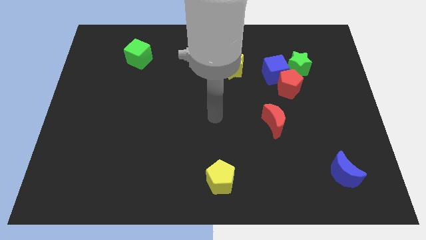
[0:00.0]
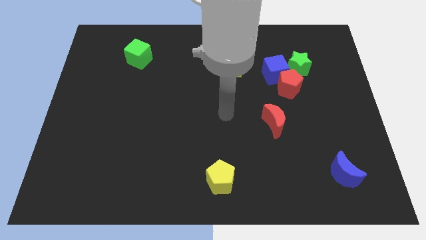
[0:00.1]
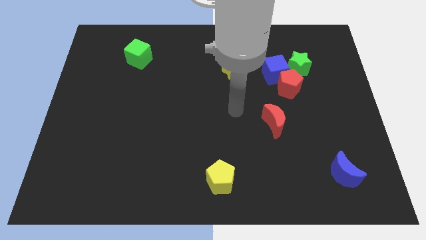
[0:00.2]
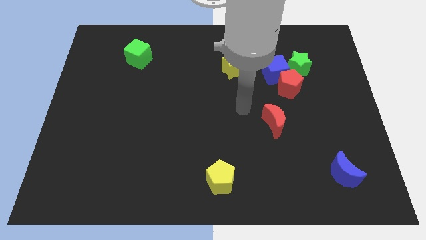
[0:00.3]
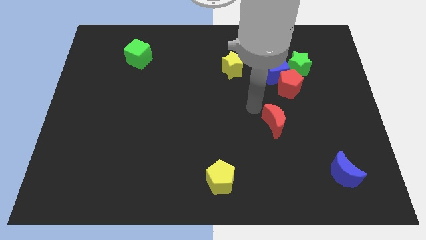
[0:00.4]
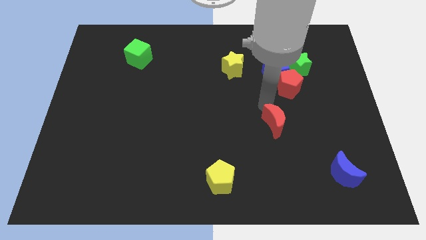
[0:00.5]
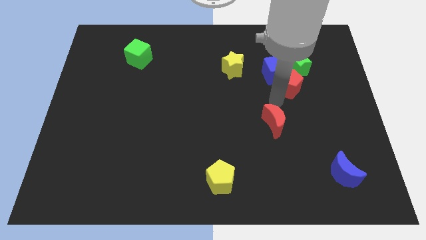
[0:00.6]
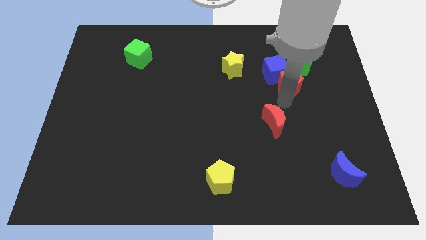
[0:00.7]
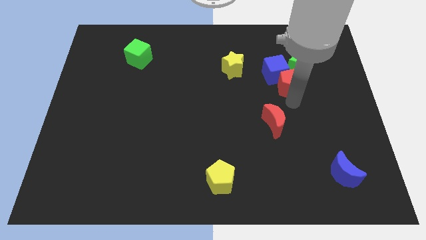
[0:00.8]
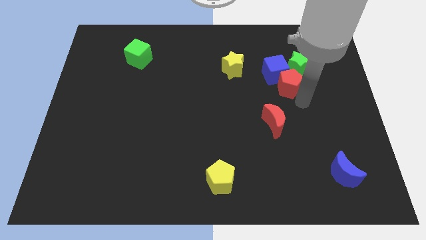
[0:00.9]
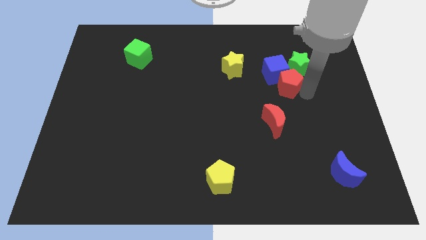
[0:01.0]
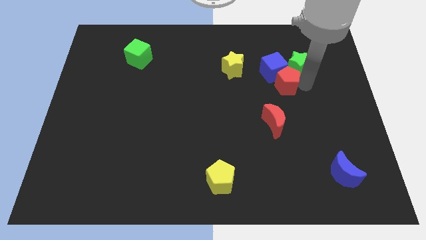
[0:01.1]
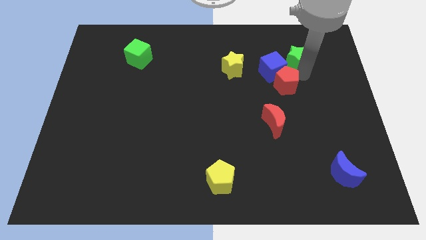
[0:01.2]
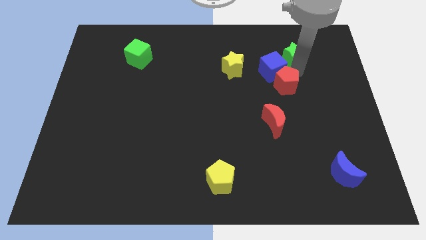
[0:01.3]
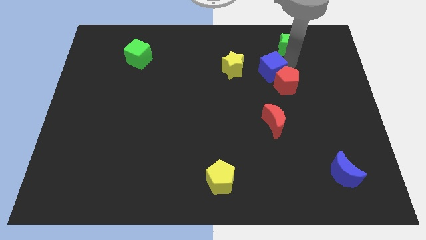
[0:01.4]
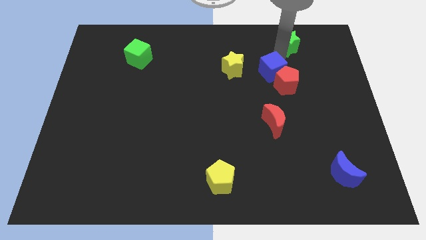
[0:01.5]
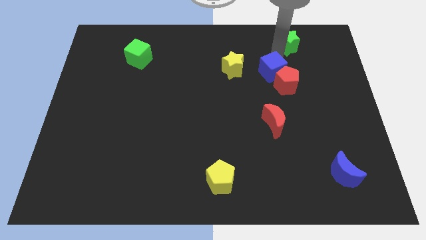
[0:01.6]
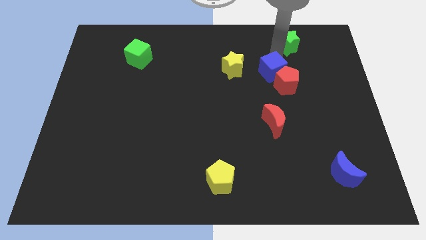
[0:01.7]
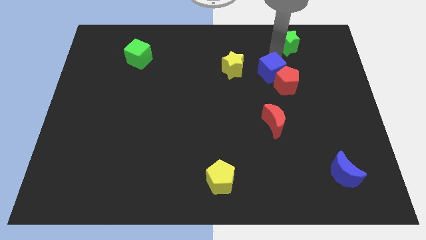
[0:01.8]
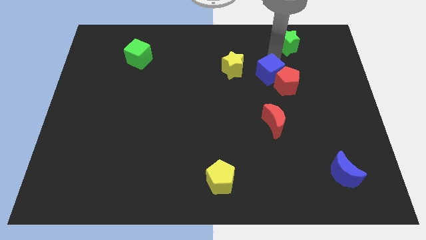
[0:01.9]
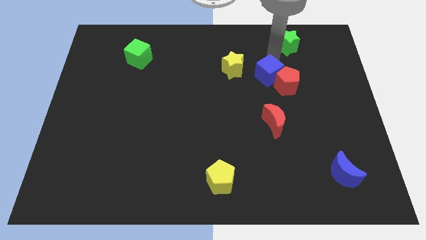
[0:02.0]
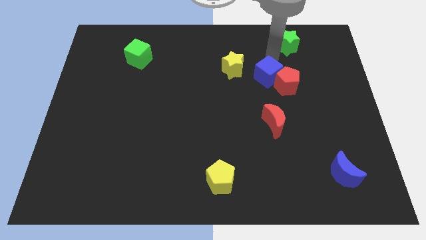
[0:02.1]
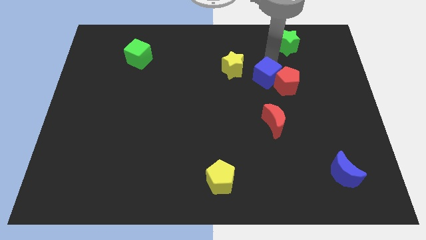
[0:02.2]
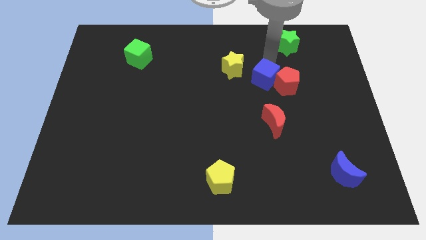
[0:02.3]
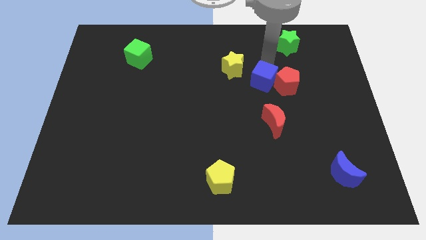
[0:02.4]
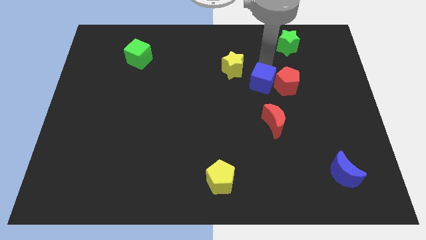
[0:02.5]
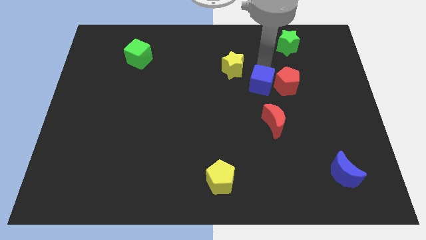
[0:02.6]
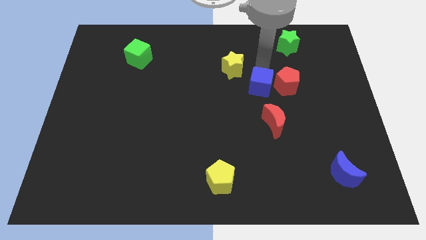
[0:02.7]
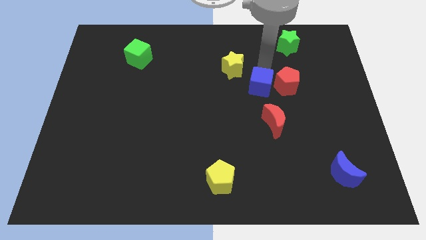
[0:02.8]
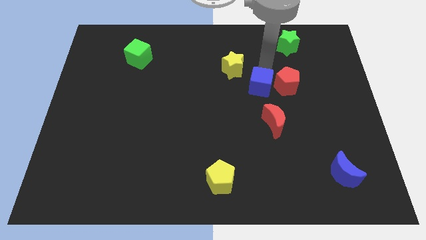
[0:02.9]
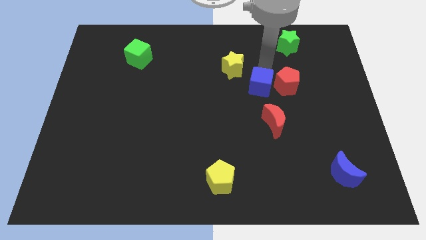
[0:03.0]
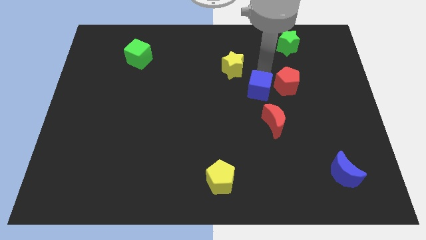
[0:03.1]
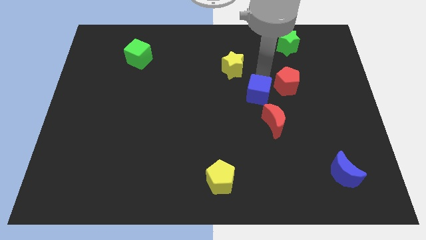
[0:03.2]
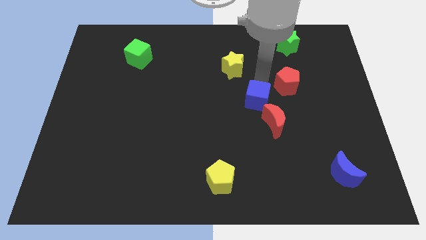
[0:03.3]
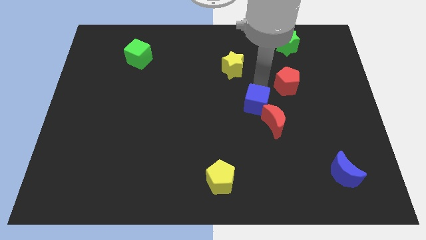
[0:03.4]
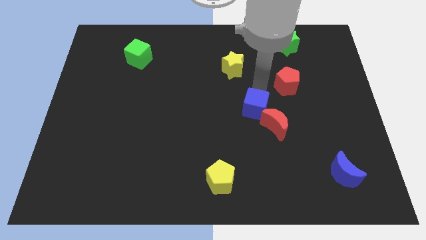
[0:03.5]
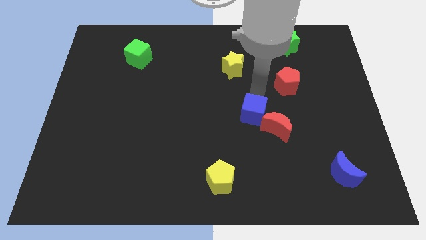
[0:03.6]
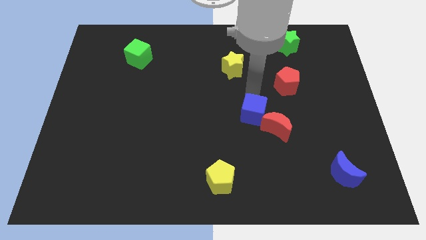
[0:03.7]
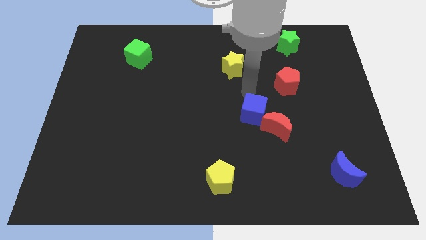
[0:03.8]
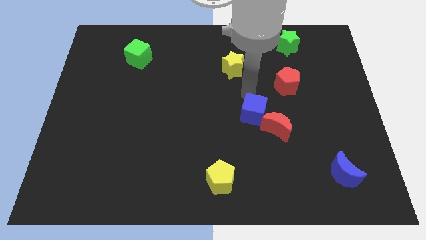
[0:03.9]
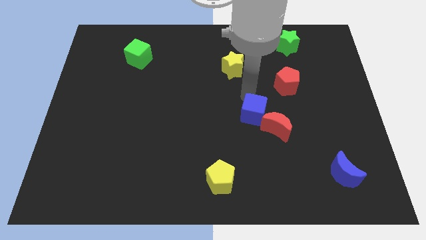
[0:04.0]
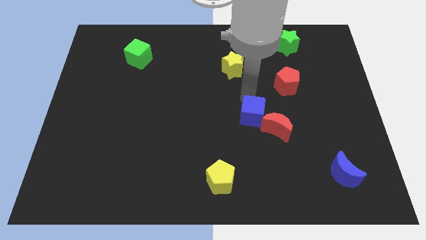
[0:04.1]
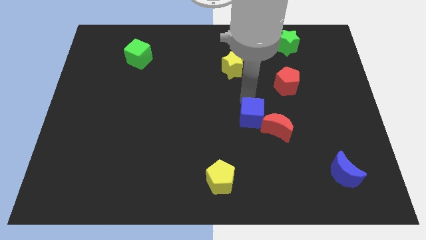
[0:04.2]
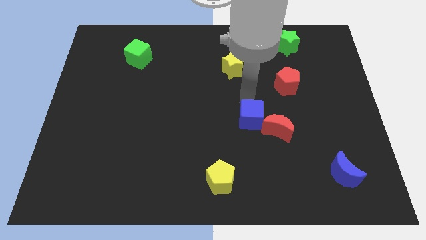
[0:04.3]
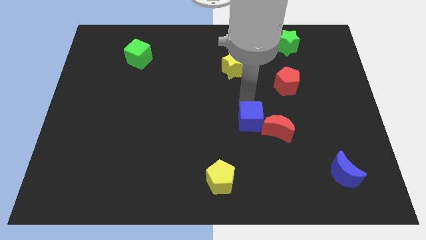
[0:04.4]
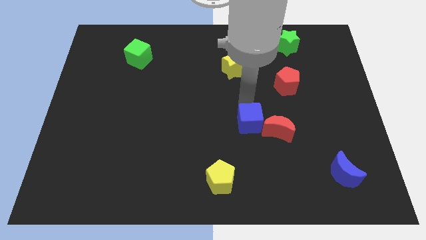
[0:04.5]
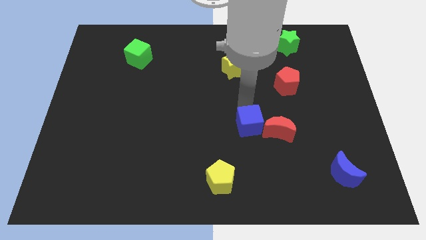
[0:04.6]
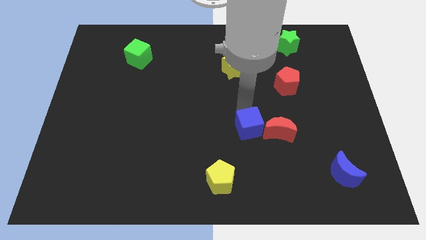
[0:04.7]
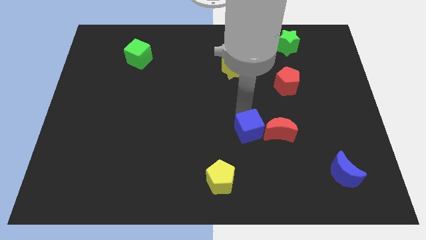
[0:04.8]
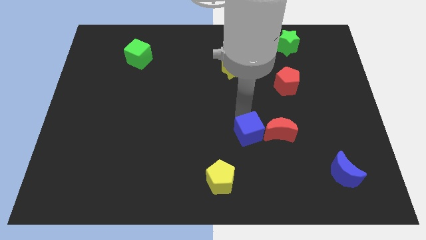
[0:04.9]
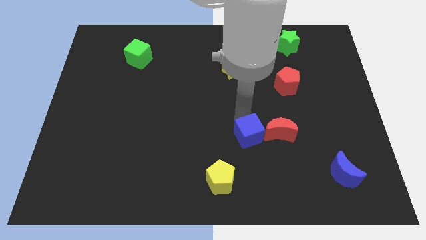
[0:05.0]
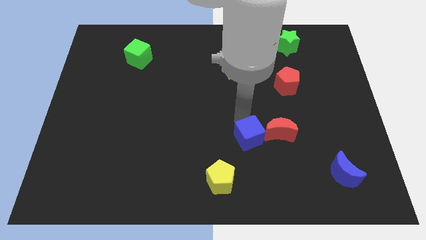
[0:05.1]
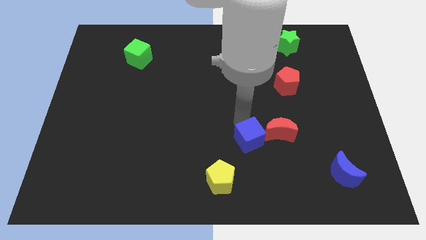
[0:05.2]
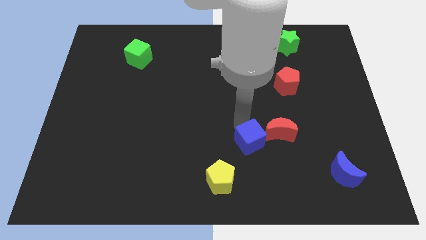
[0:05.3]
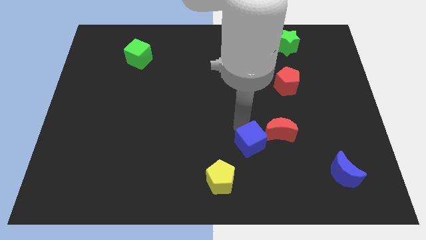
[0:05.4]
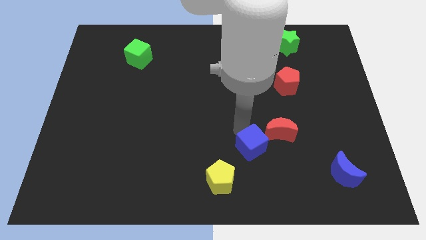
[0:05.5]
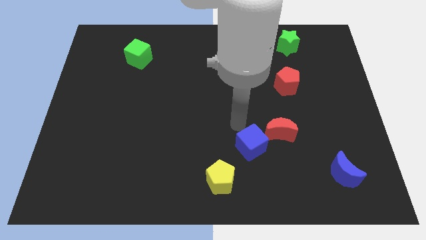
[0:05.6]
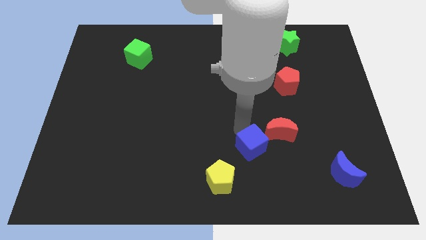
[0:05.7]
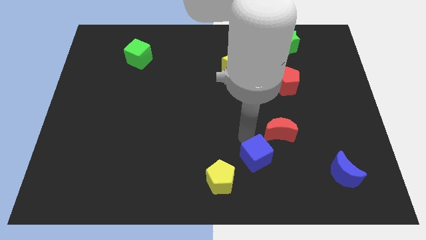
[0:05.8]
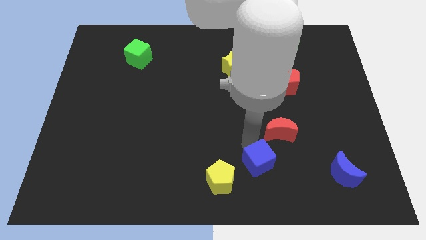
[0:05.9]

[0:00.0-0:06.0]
put the blue cube to the right of the yellow pentagon

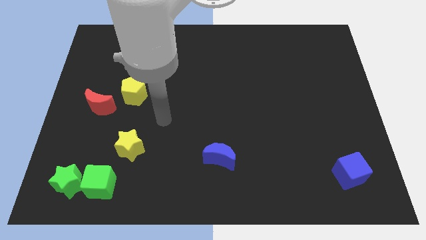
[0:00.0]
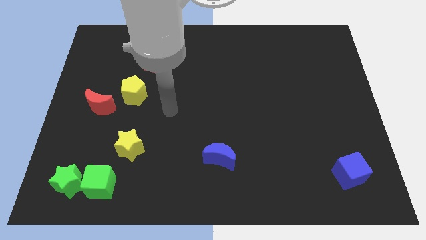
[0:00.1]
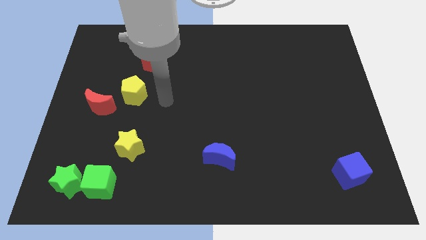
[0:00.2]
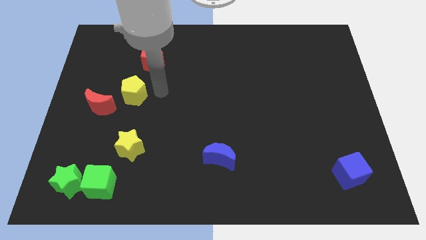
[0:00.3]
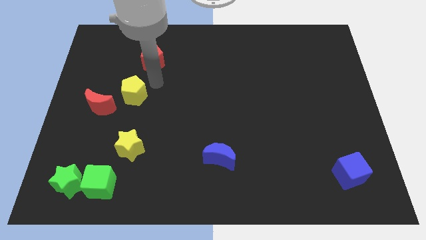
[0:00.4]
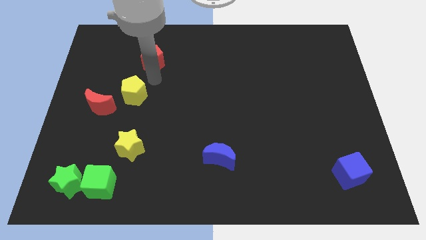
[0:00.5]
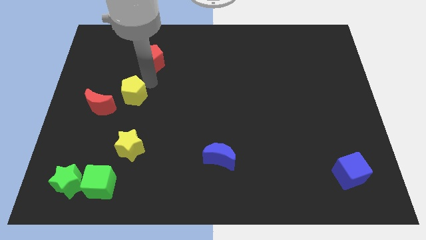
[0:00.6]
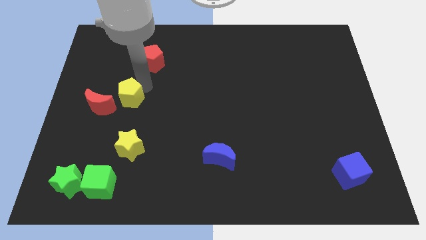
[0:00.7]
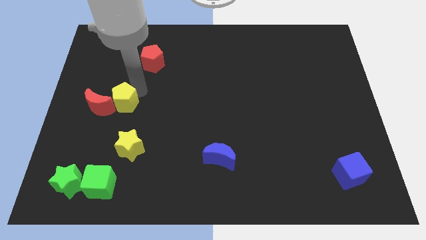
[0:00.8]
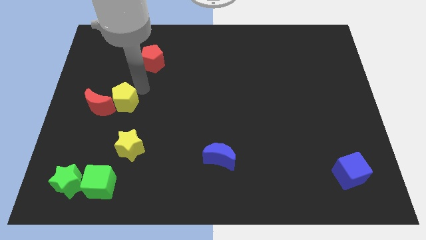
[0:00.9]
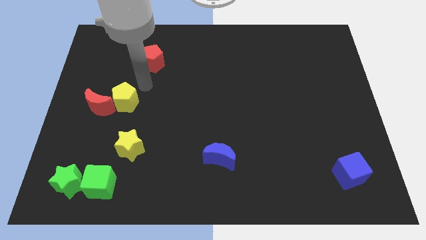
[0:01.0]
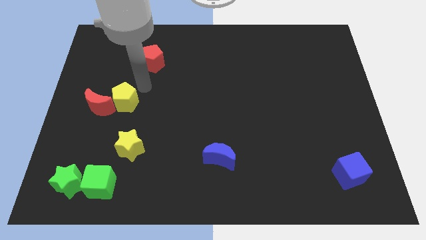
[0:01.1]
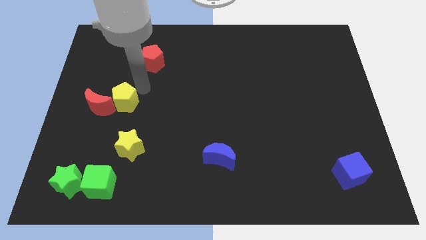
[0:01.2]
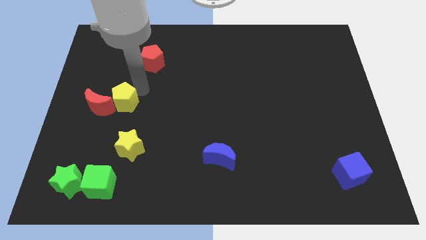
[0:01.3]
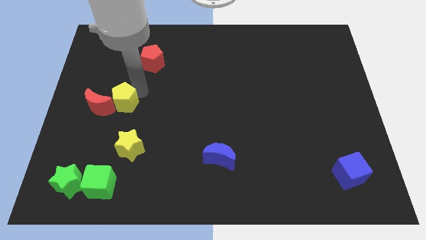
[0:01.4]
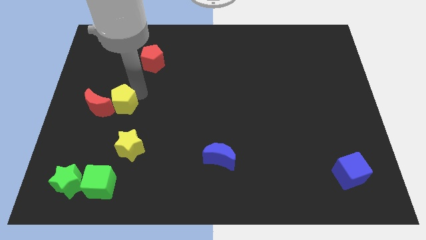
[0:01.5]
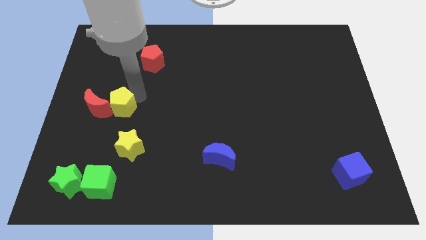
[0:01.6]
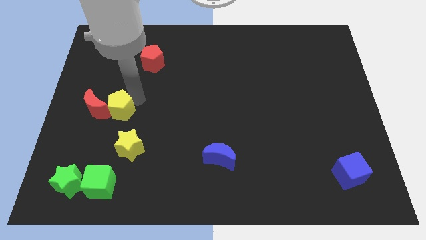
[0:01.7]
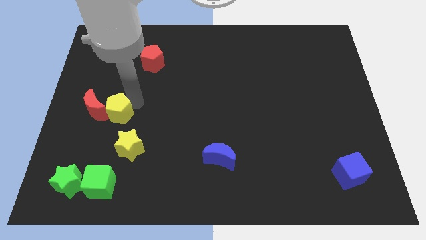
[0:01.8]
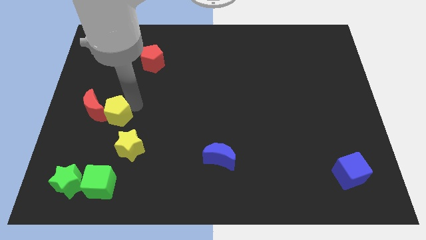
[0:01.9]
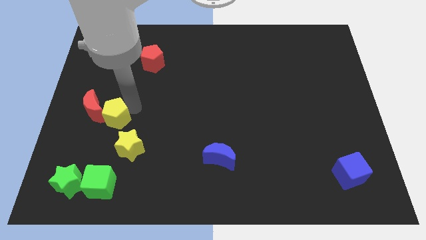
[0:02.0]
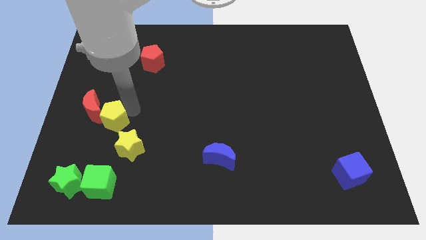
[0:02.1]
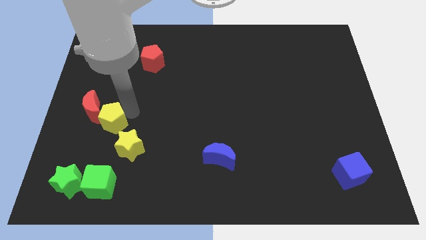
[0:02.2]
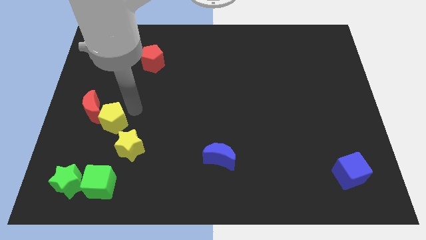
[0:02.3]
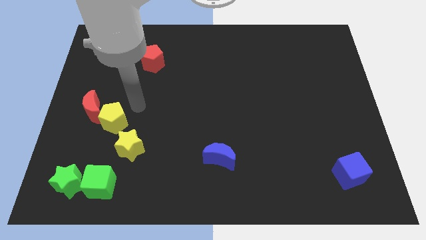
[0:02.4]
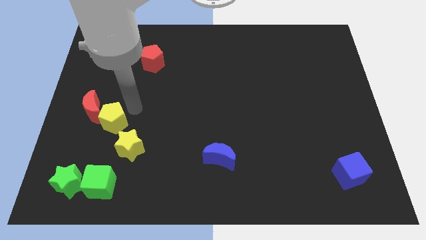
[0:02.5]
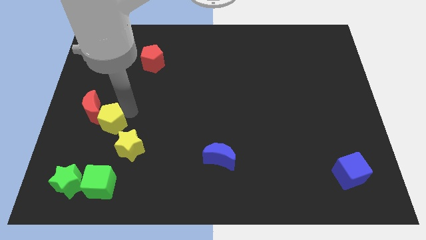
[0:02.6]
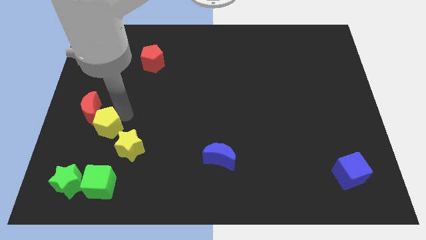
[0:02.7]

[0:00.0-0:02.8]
move the yellow pentagon to the bottom side of the red moon
